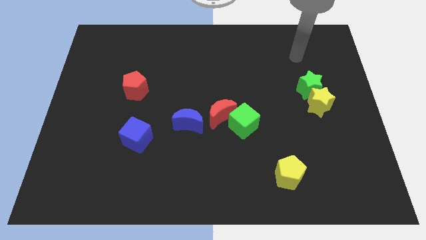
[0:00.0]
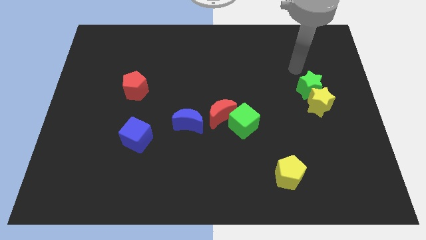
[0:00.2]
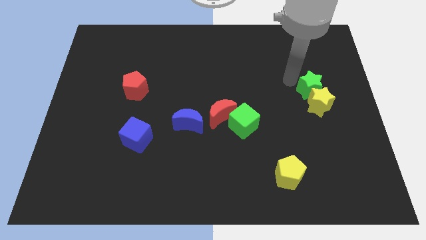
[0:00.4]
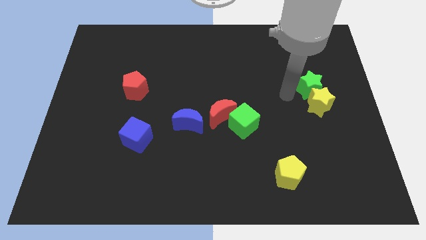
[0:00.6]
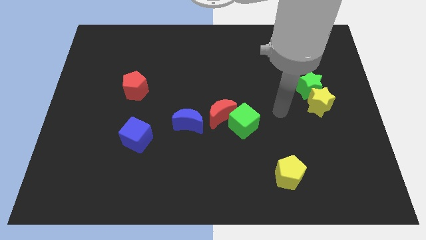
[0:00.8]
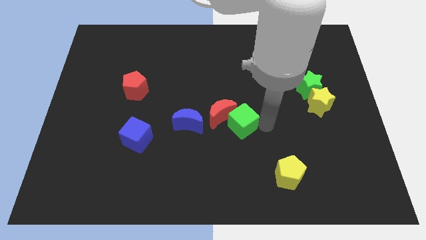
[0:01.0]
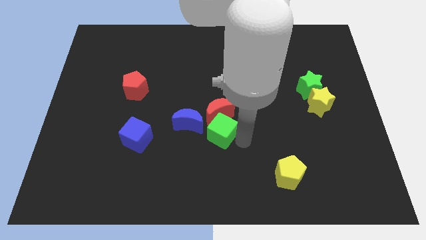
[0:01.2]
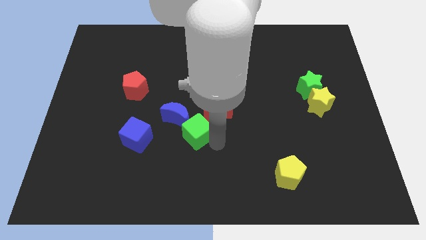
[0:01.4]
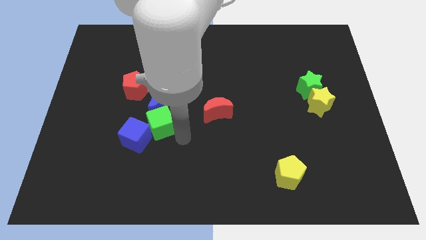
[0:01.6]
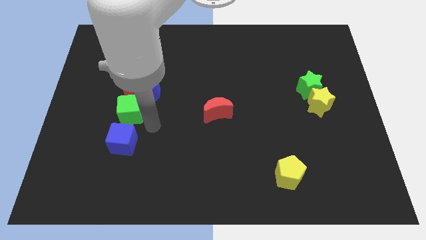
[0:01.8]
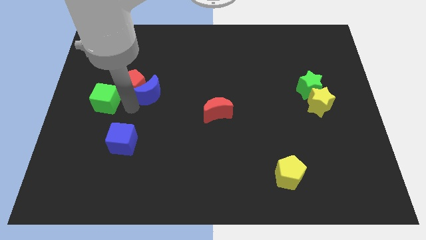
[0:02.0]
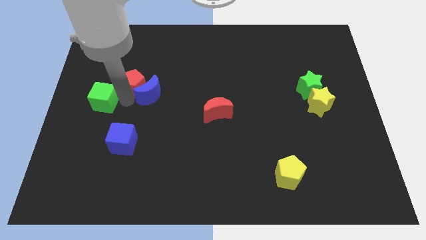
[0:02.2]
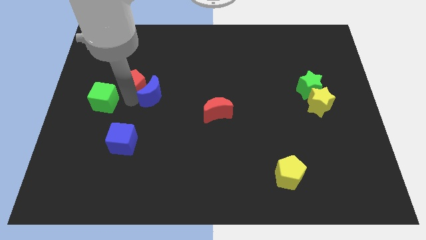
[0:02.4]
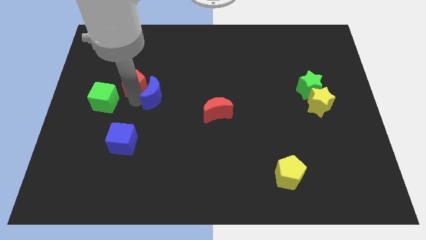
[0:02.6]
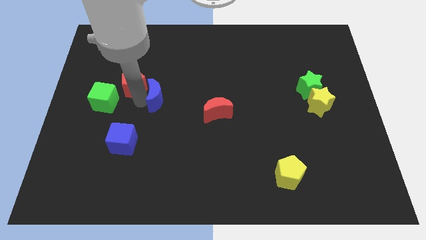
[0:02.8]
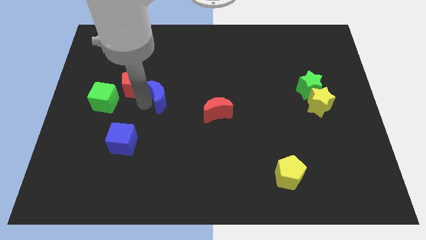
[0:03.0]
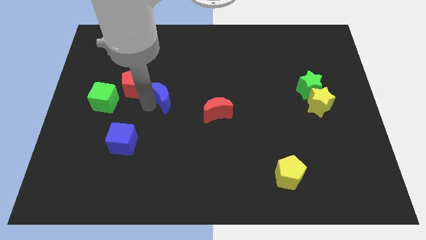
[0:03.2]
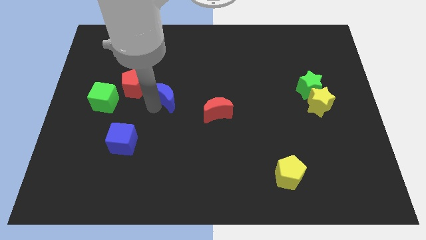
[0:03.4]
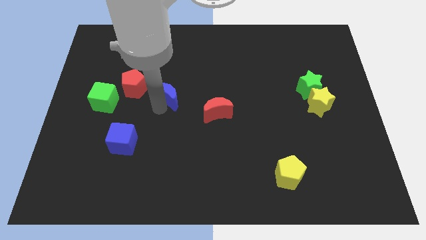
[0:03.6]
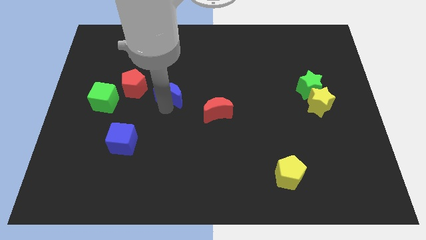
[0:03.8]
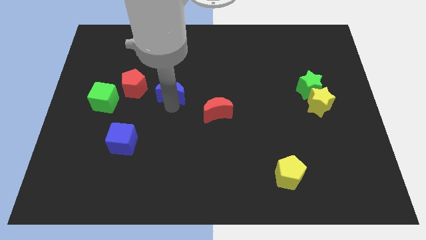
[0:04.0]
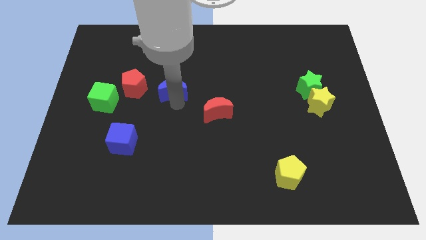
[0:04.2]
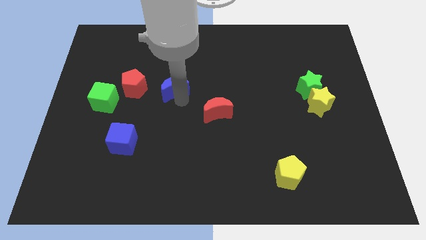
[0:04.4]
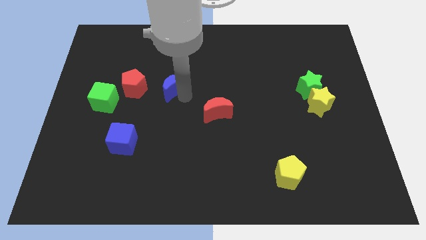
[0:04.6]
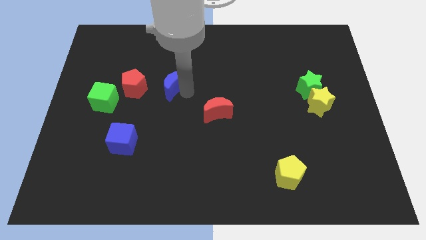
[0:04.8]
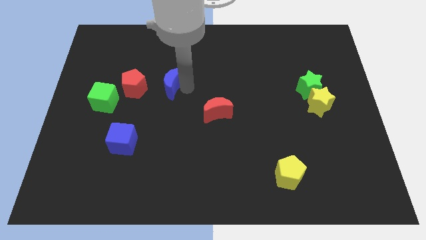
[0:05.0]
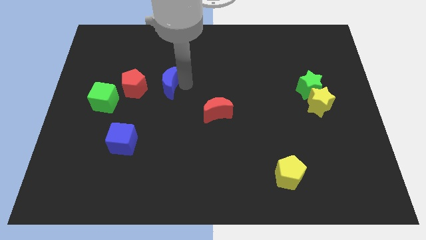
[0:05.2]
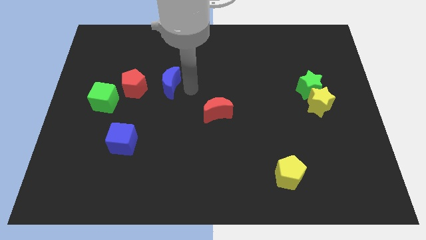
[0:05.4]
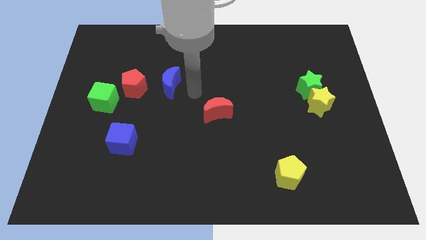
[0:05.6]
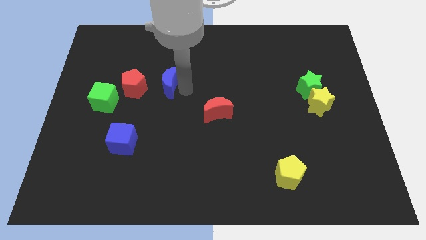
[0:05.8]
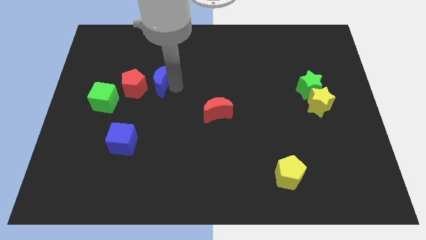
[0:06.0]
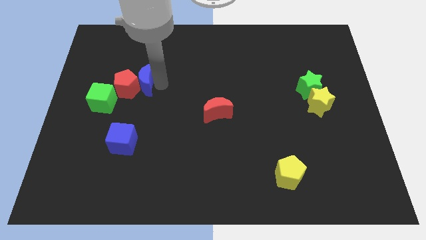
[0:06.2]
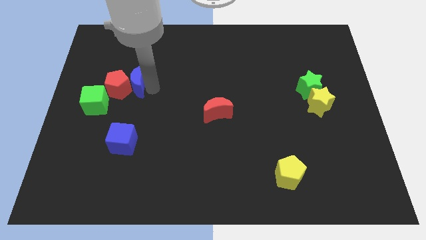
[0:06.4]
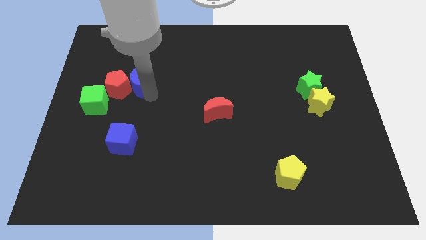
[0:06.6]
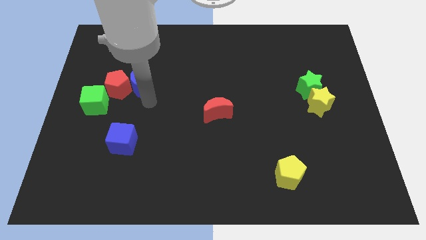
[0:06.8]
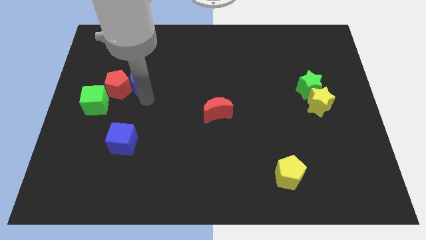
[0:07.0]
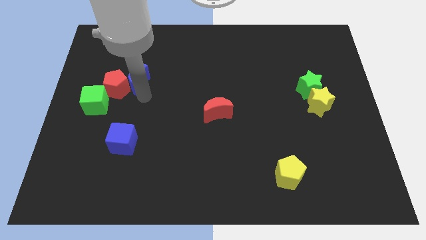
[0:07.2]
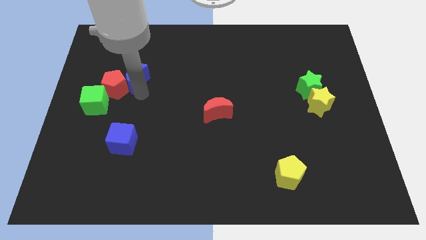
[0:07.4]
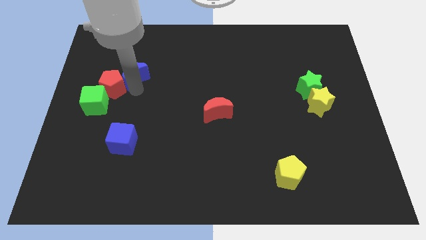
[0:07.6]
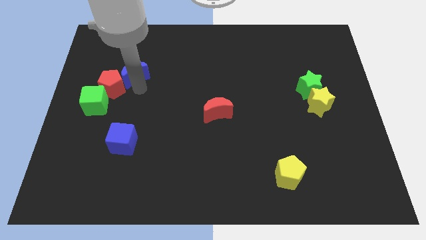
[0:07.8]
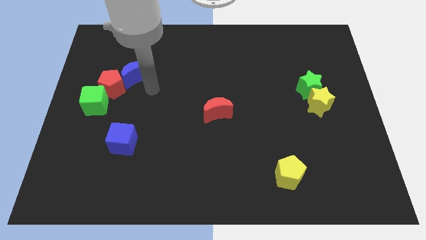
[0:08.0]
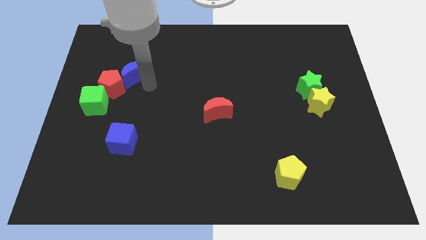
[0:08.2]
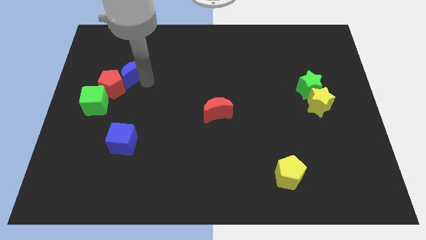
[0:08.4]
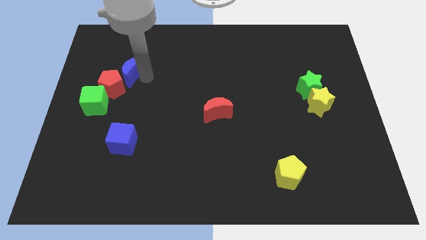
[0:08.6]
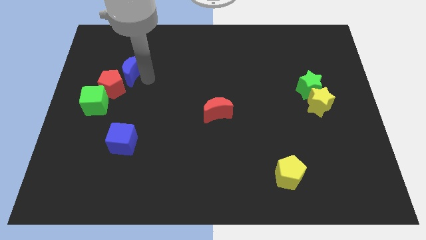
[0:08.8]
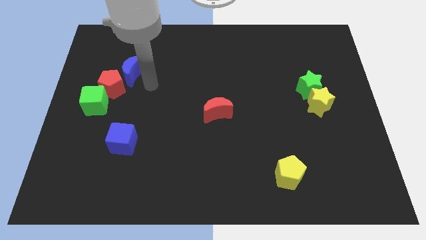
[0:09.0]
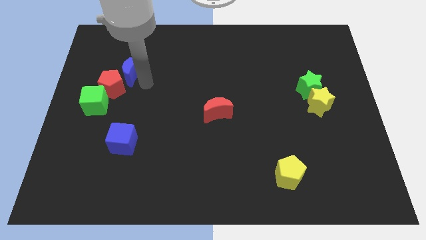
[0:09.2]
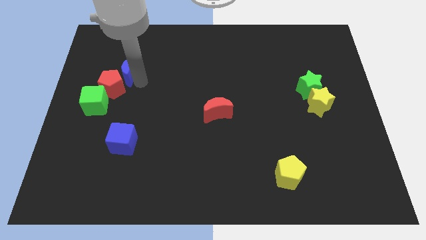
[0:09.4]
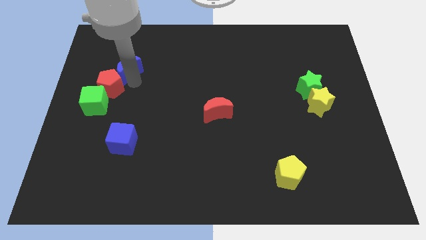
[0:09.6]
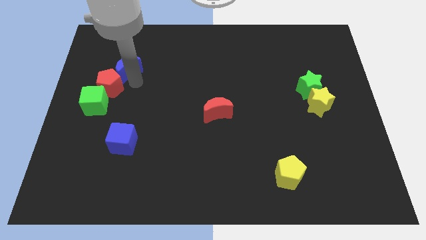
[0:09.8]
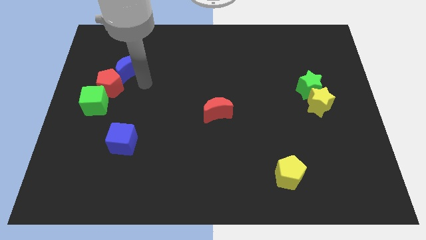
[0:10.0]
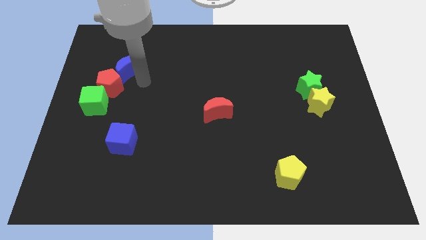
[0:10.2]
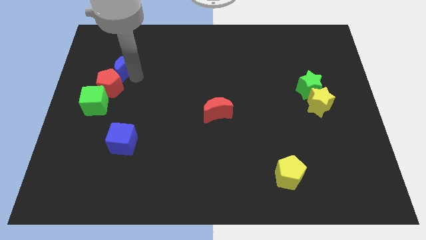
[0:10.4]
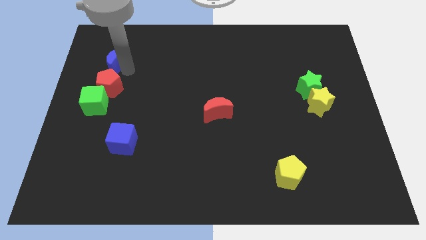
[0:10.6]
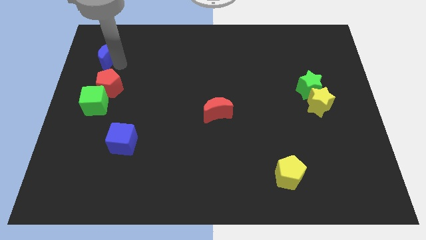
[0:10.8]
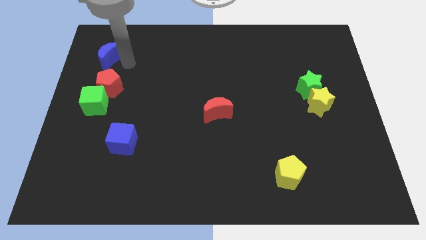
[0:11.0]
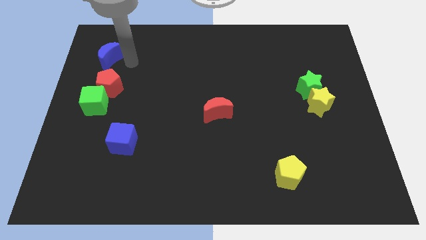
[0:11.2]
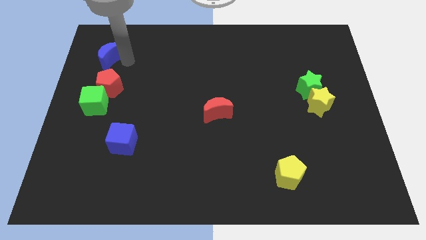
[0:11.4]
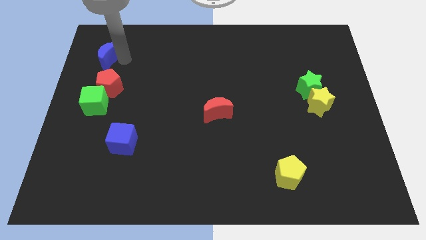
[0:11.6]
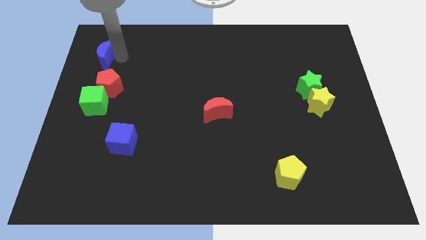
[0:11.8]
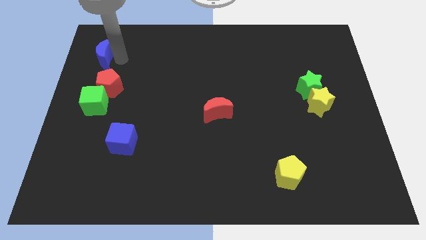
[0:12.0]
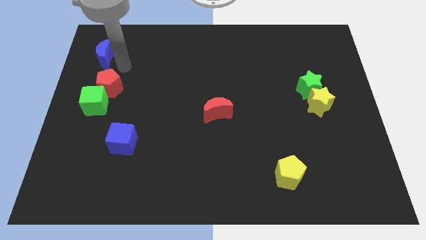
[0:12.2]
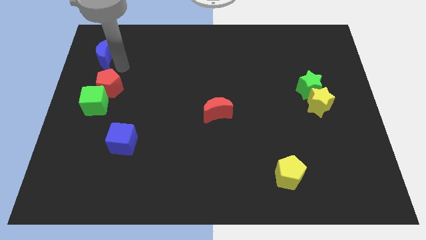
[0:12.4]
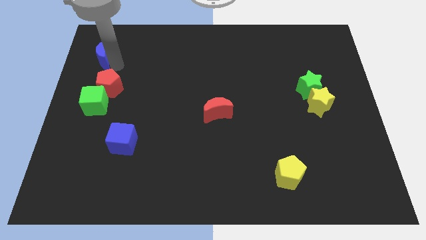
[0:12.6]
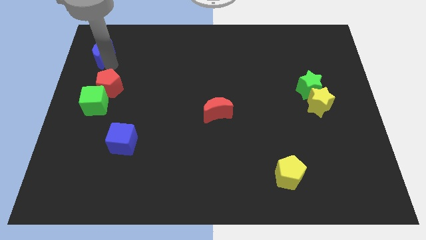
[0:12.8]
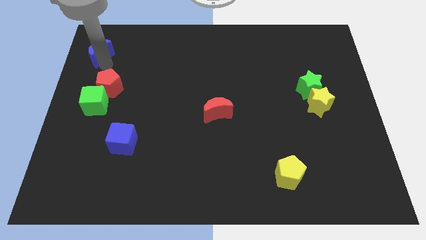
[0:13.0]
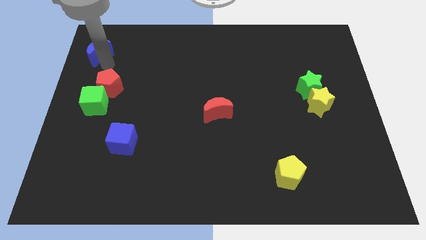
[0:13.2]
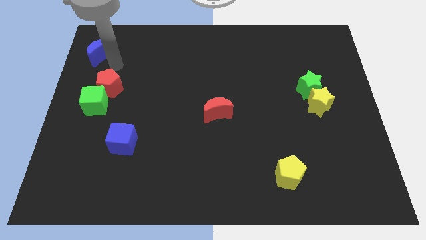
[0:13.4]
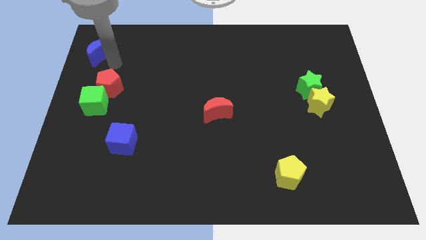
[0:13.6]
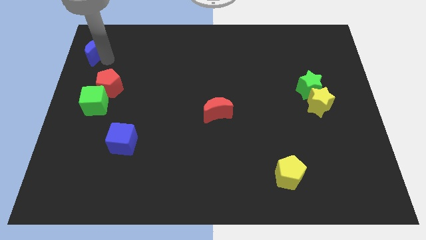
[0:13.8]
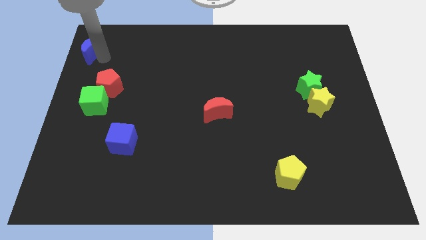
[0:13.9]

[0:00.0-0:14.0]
push the blue moon to the top left corner
